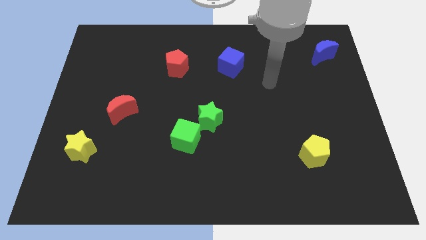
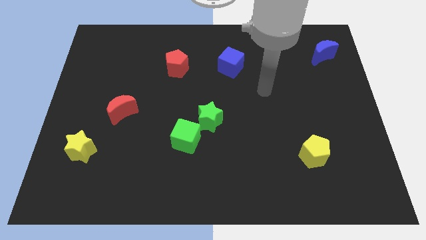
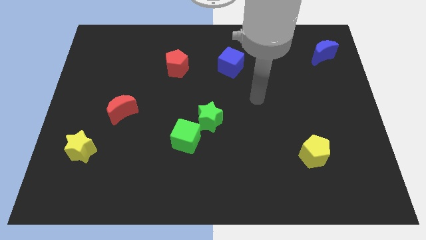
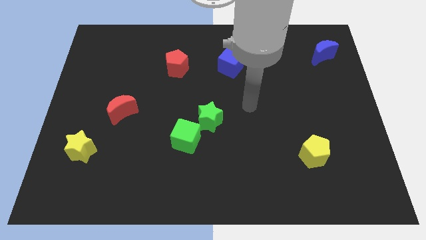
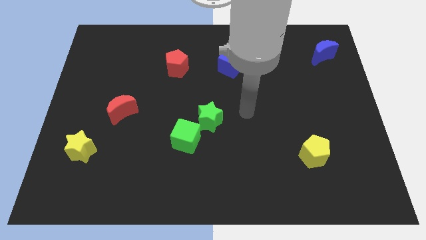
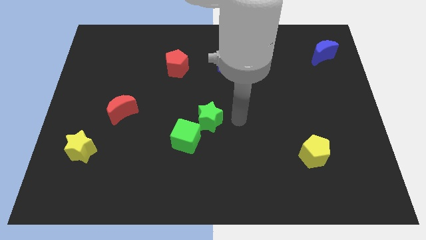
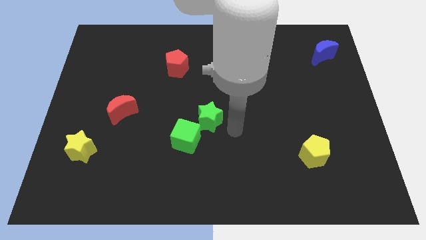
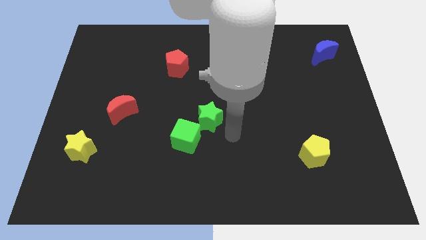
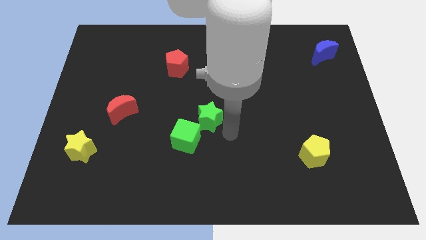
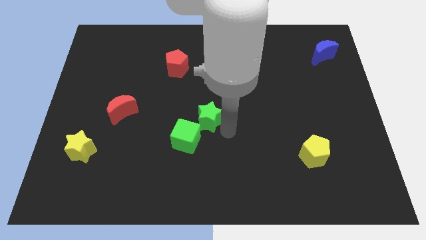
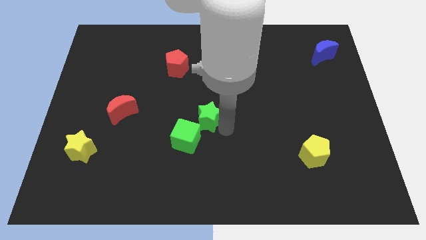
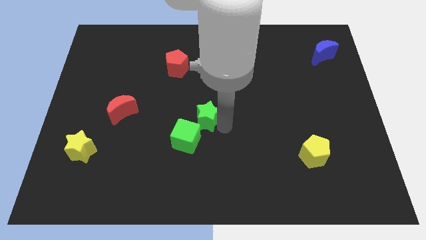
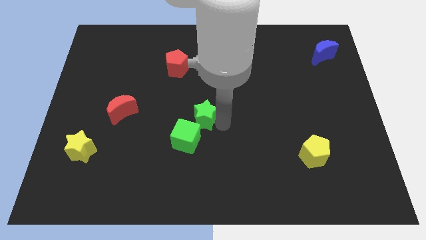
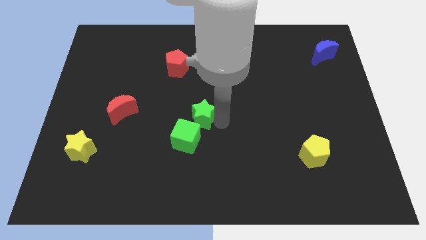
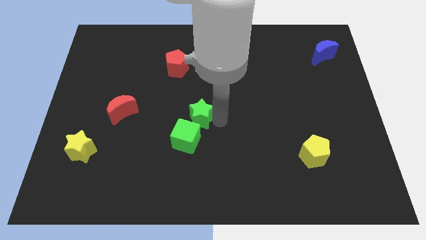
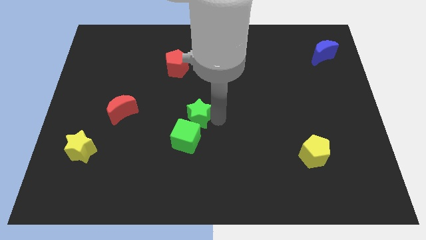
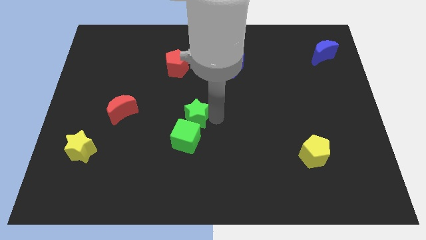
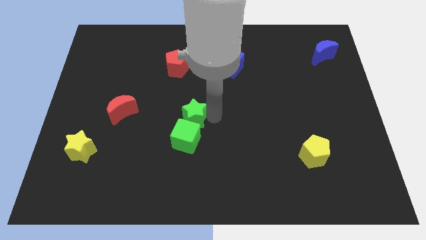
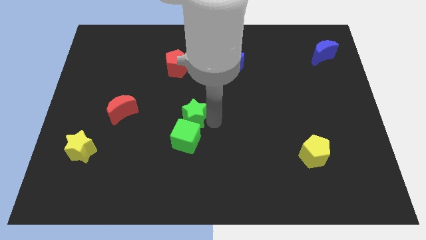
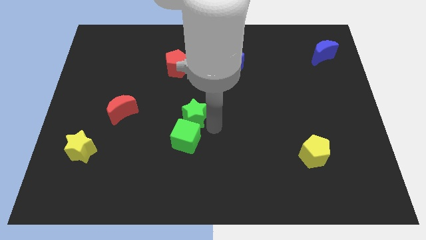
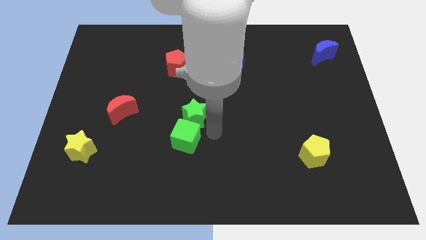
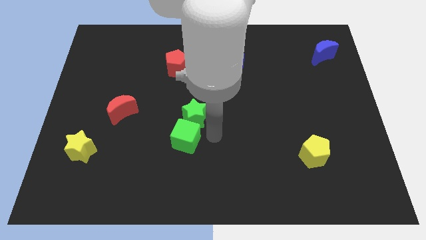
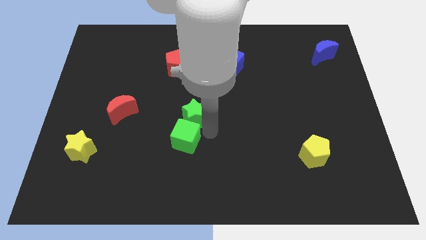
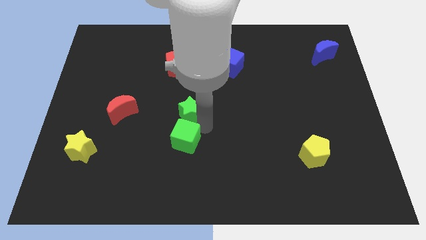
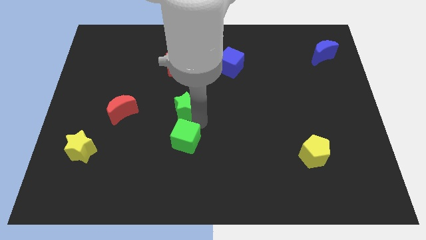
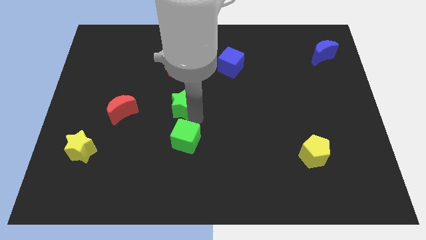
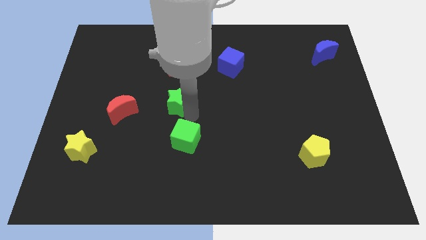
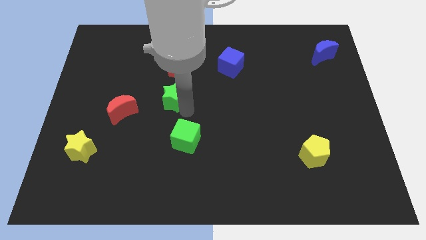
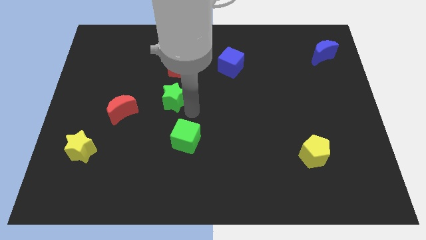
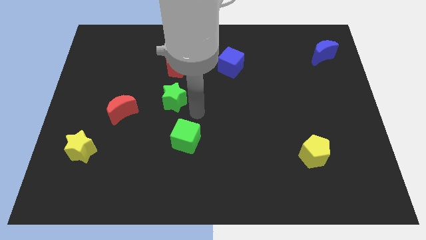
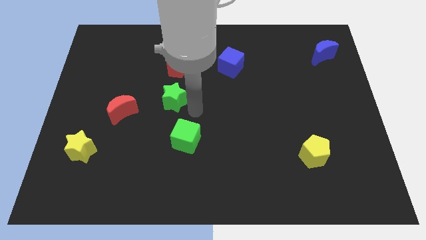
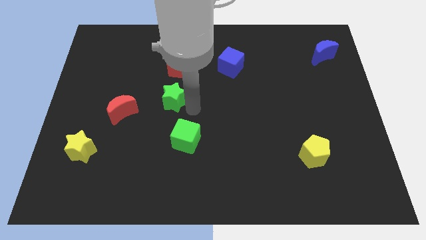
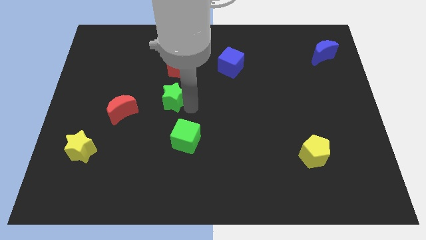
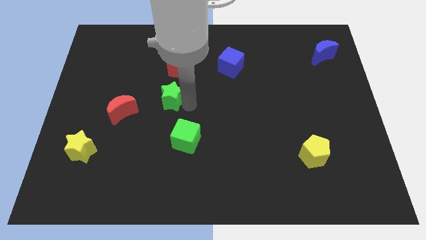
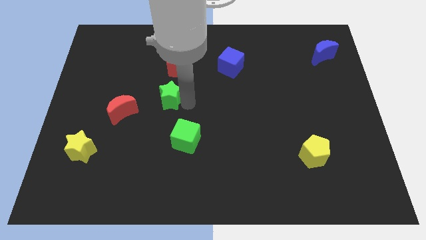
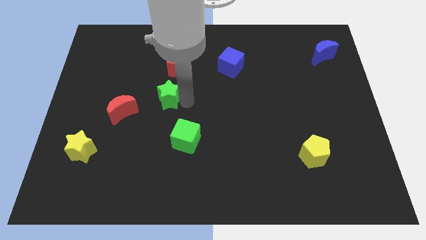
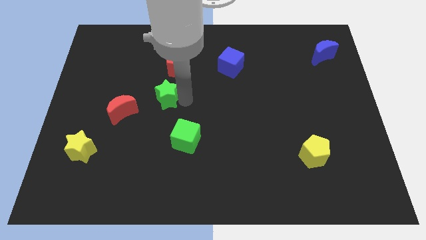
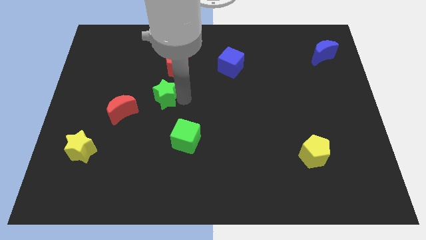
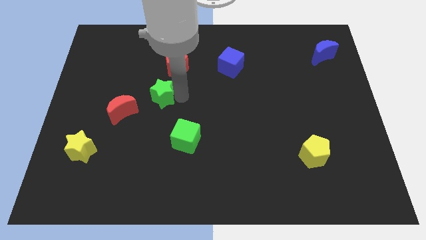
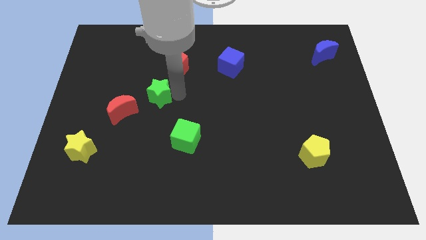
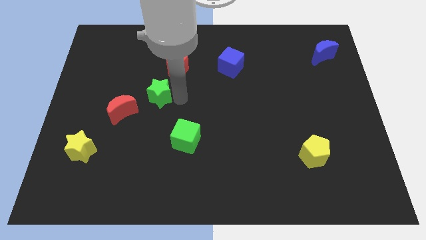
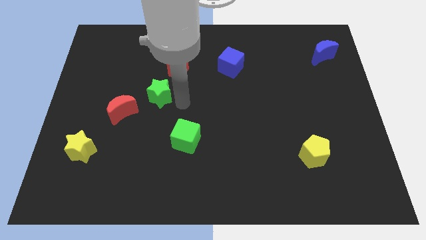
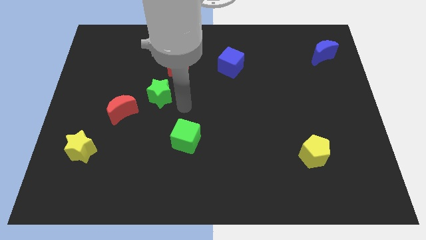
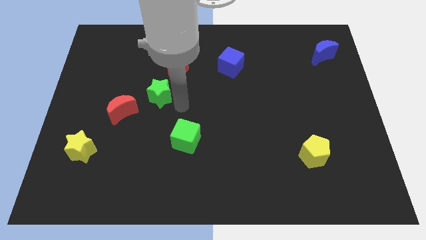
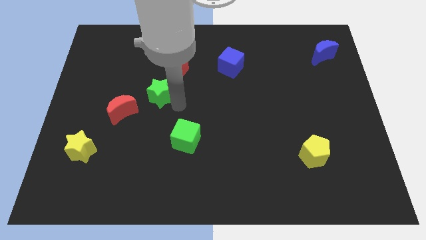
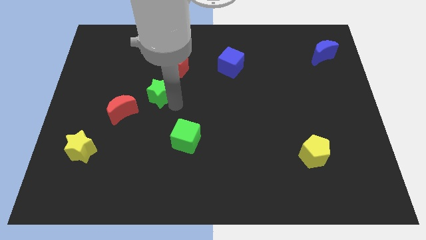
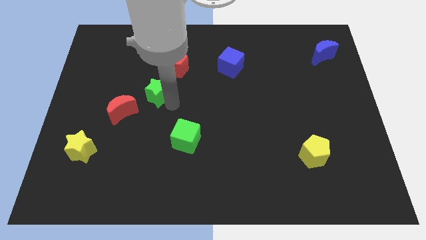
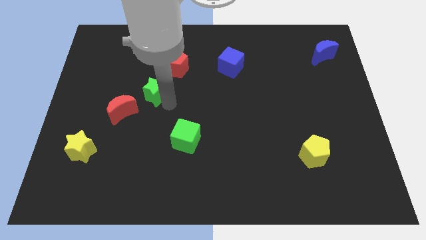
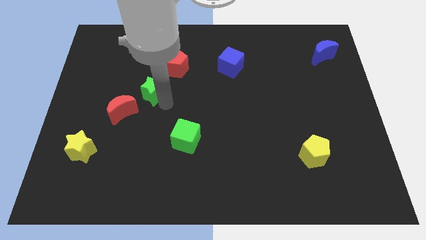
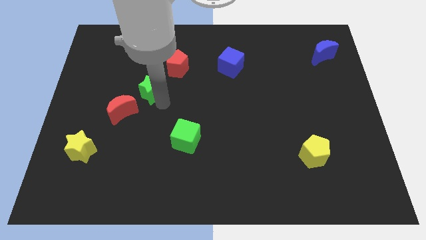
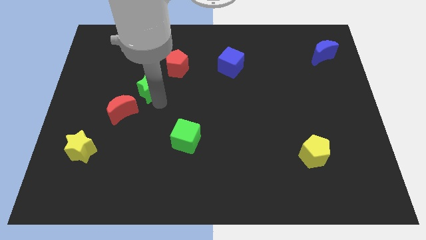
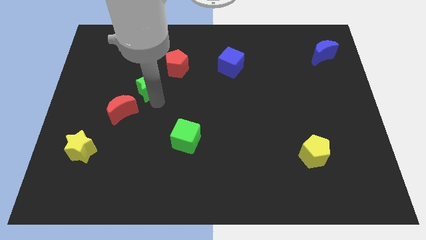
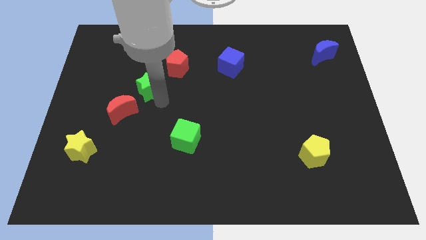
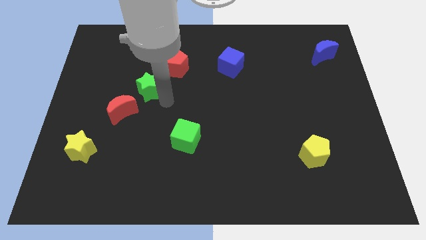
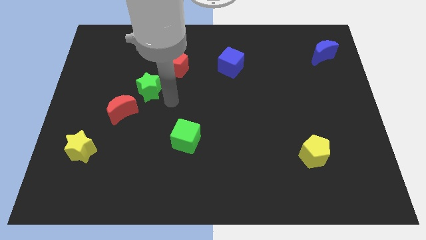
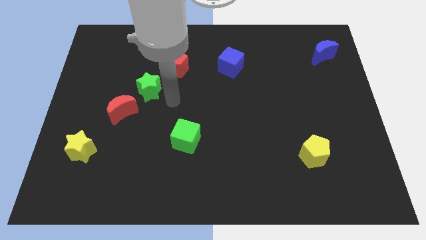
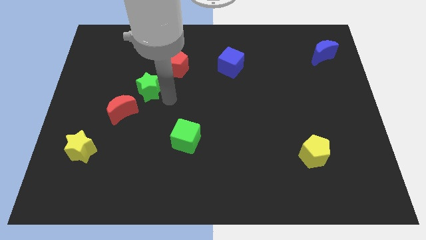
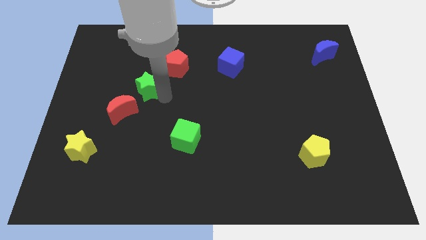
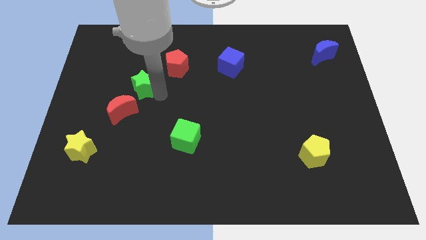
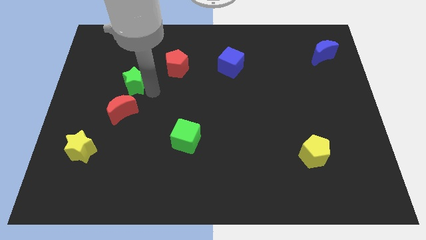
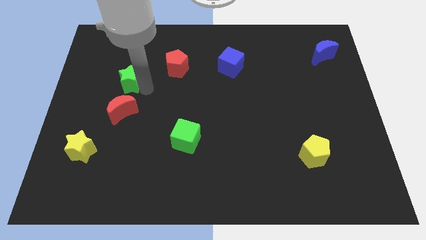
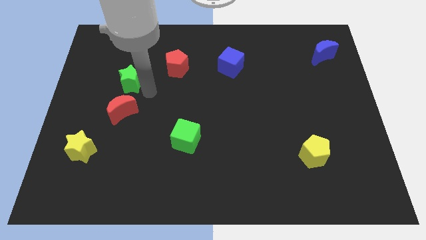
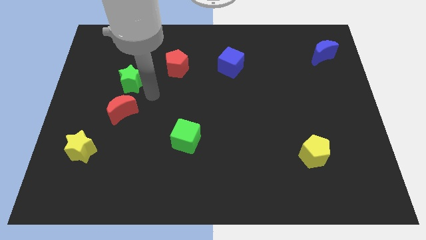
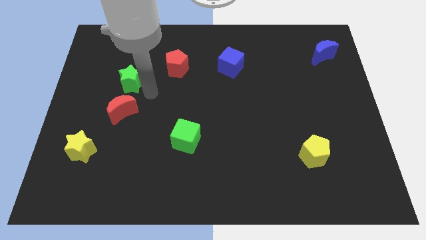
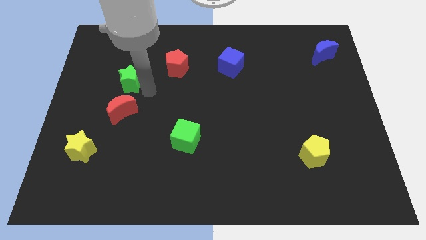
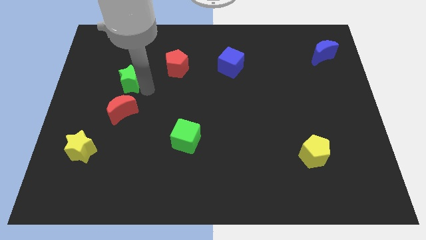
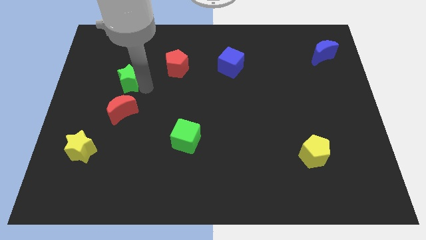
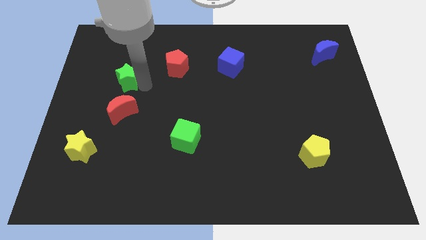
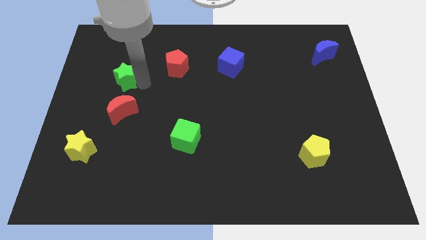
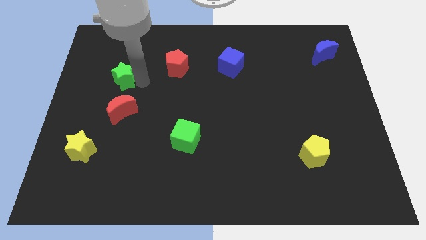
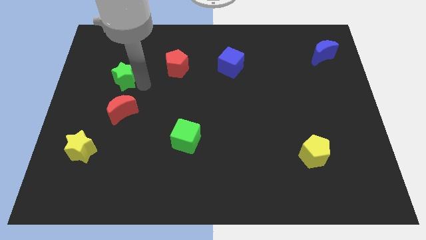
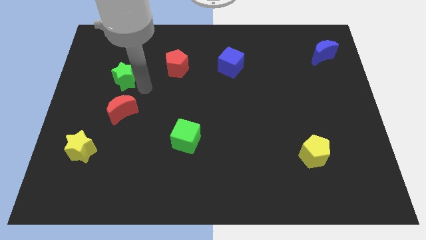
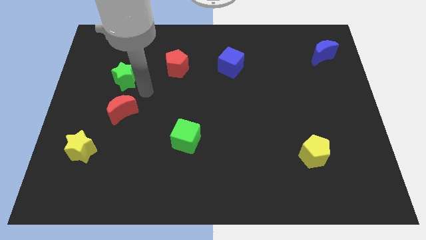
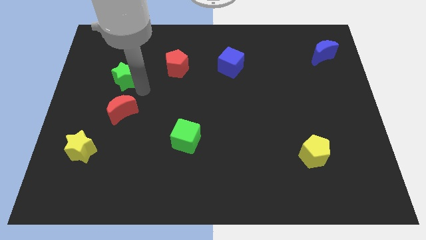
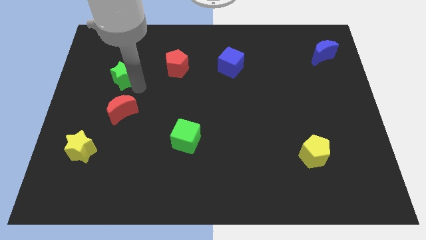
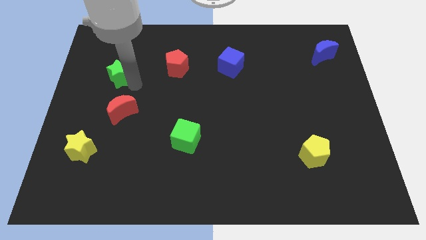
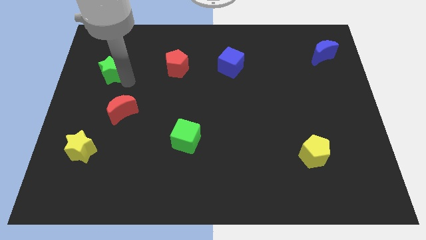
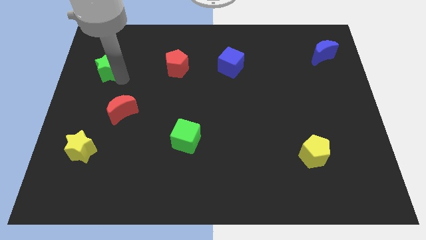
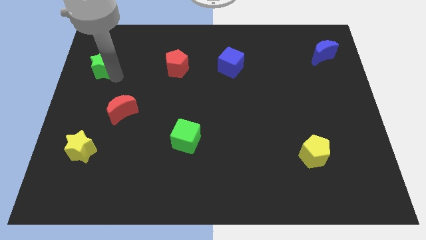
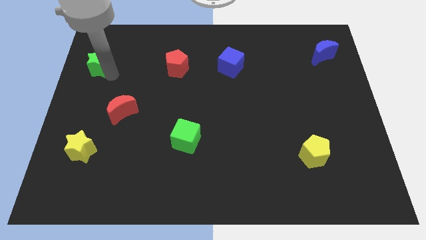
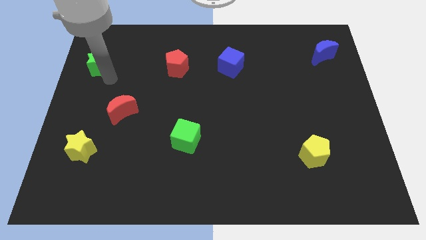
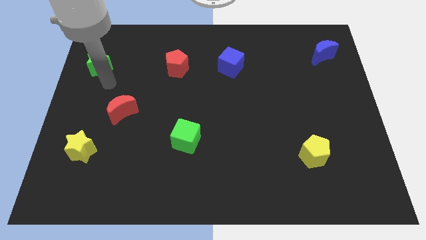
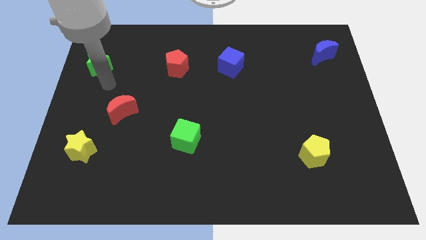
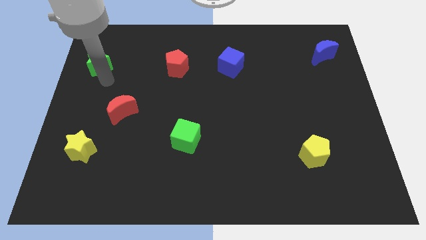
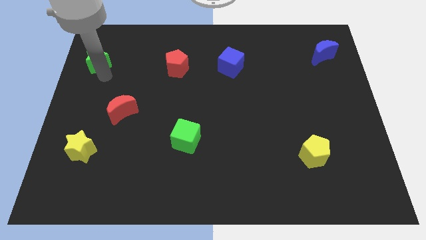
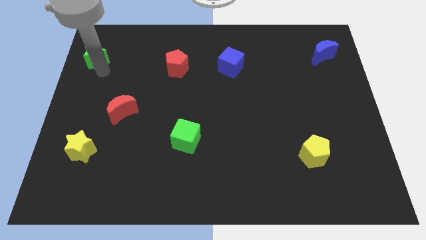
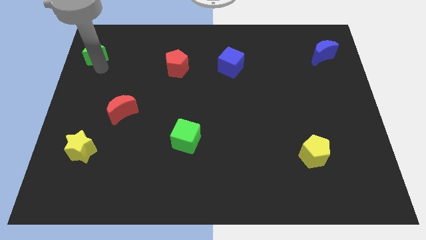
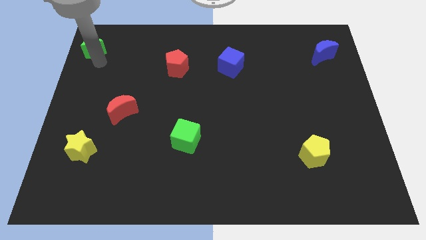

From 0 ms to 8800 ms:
push the green star to the top left corner
